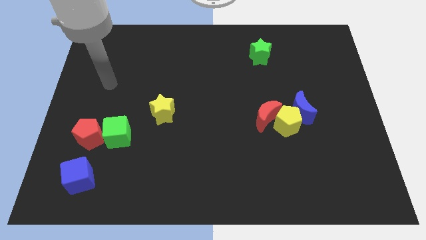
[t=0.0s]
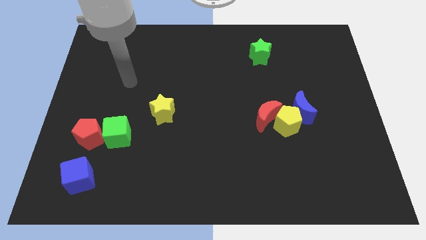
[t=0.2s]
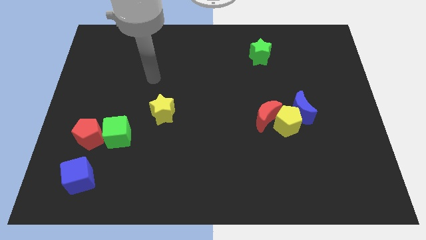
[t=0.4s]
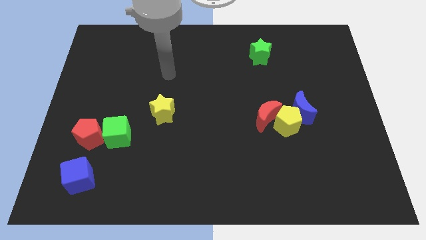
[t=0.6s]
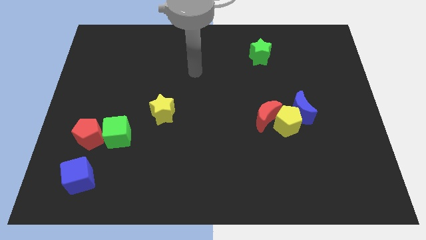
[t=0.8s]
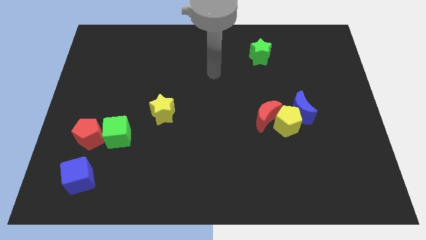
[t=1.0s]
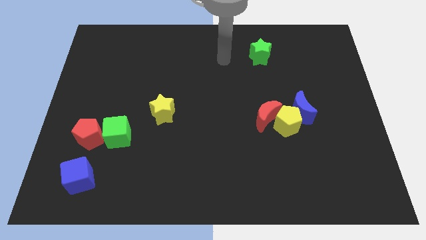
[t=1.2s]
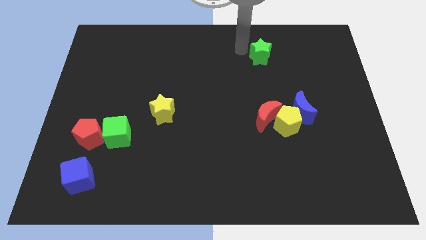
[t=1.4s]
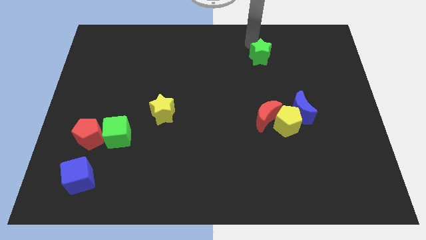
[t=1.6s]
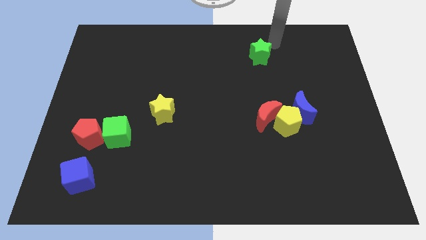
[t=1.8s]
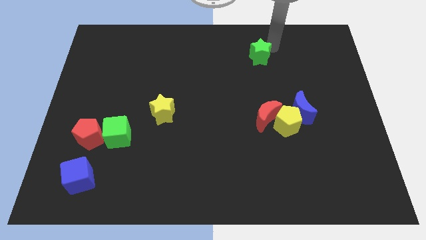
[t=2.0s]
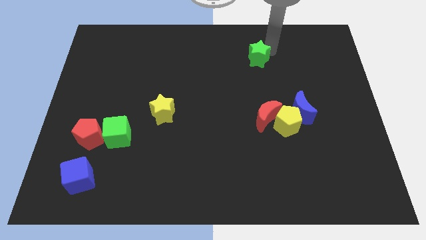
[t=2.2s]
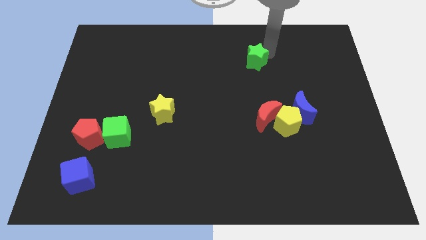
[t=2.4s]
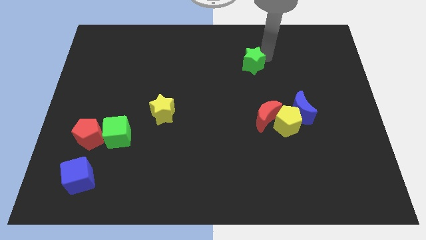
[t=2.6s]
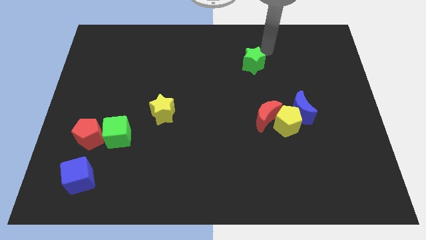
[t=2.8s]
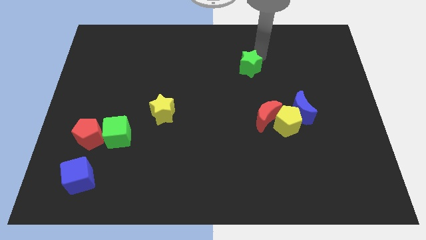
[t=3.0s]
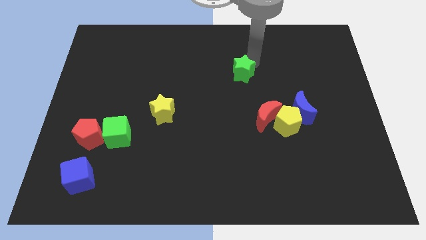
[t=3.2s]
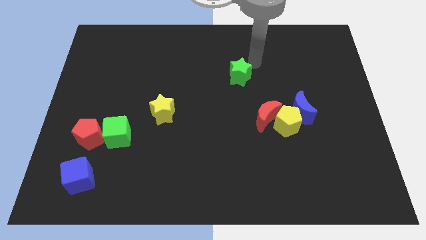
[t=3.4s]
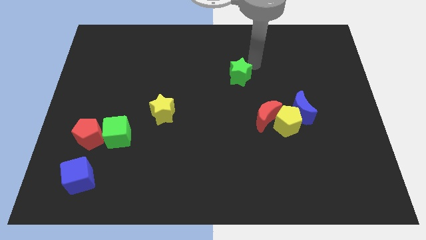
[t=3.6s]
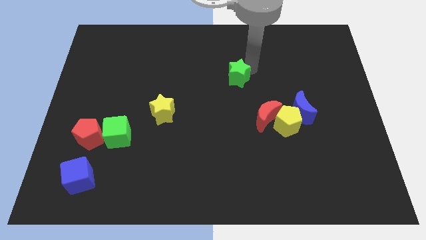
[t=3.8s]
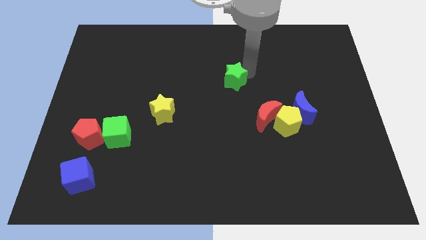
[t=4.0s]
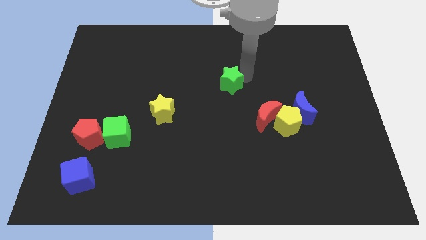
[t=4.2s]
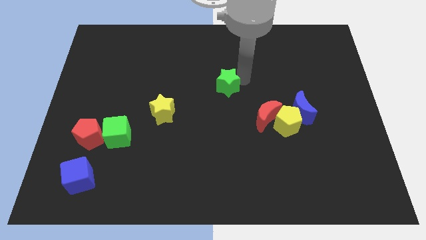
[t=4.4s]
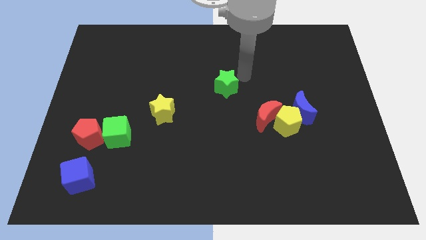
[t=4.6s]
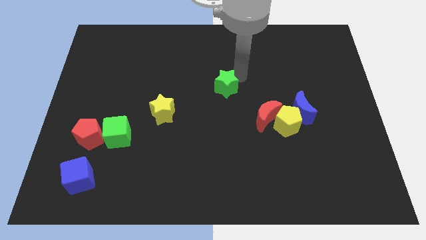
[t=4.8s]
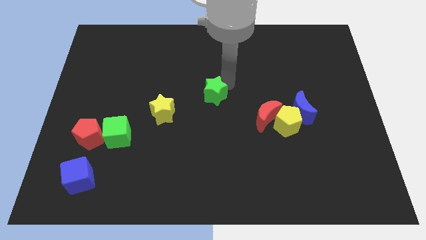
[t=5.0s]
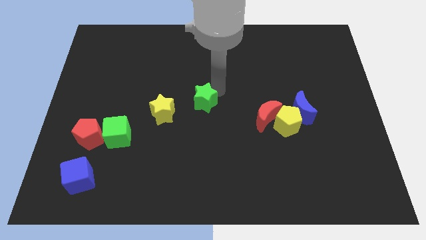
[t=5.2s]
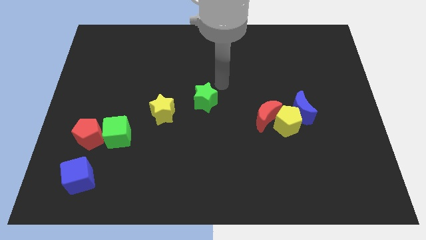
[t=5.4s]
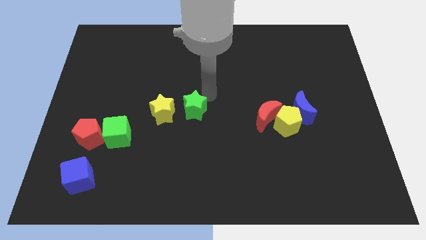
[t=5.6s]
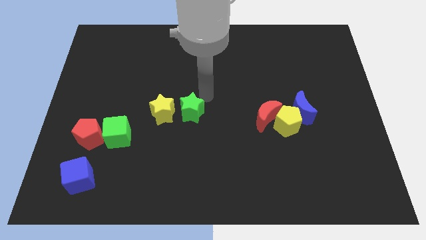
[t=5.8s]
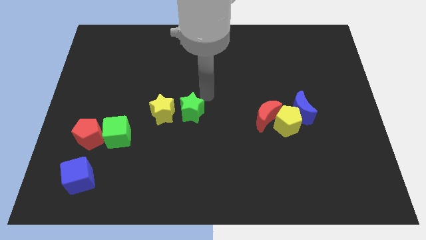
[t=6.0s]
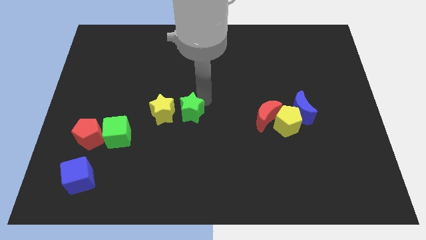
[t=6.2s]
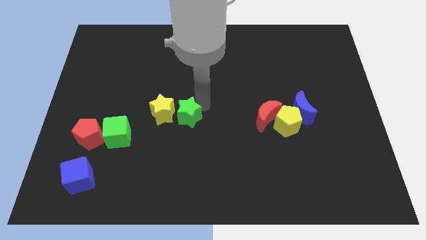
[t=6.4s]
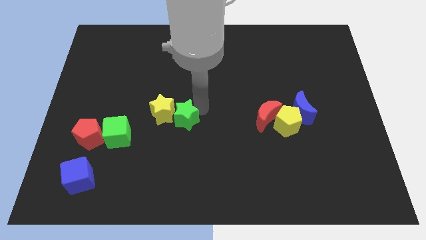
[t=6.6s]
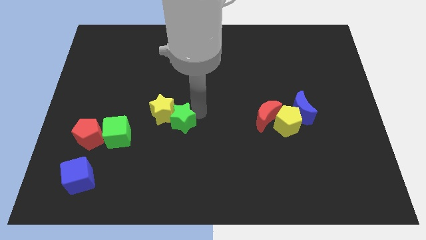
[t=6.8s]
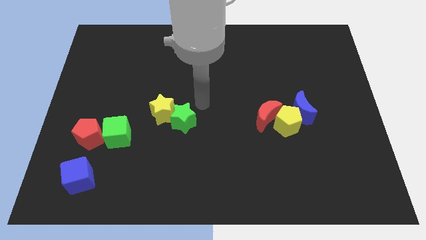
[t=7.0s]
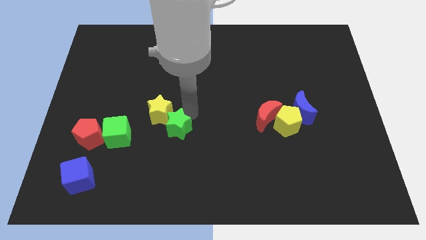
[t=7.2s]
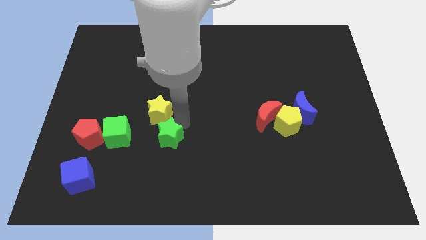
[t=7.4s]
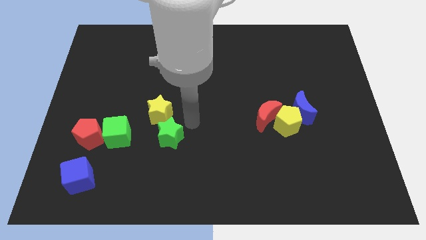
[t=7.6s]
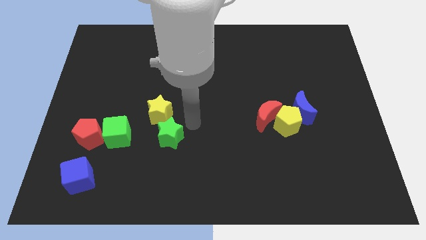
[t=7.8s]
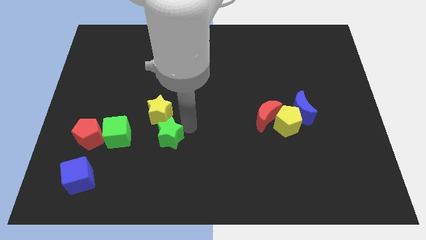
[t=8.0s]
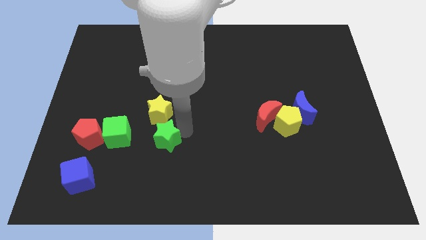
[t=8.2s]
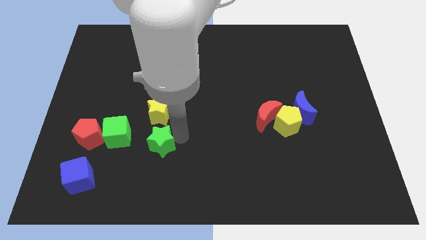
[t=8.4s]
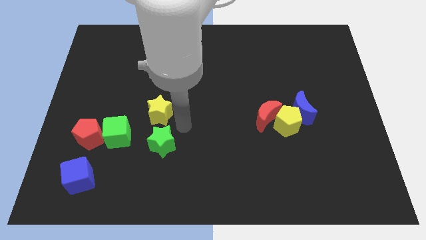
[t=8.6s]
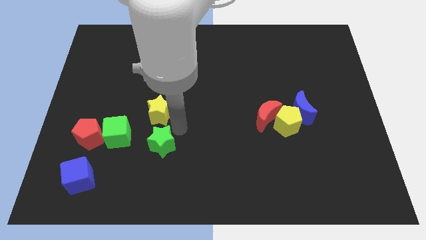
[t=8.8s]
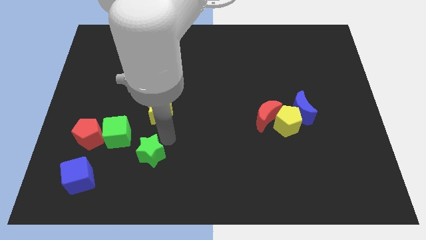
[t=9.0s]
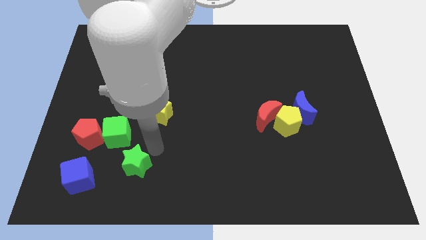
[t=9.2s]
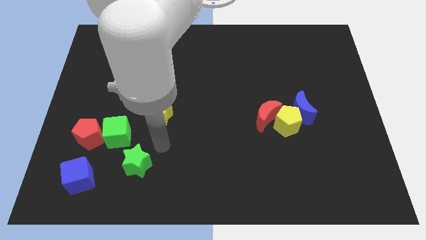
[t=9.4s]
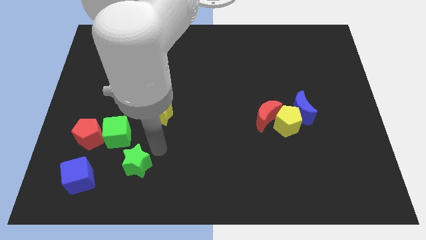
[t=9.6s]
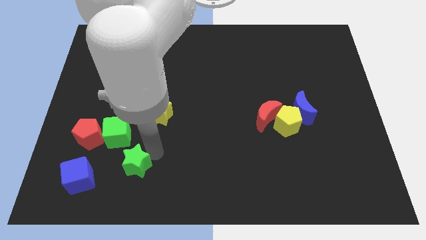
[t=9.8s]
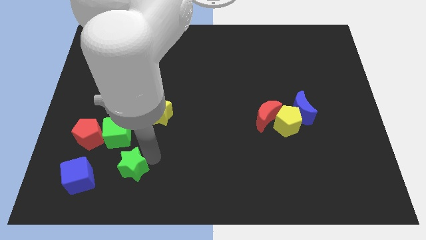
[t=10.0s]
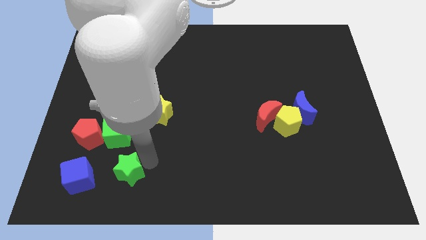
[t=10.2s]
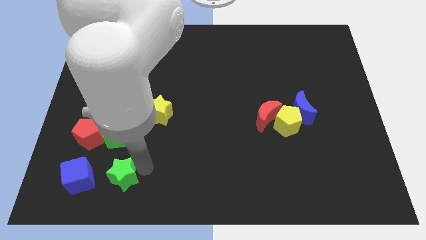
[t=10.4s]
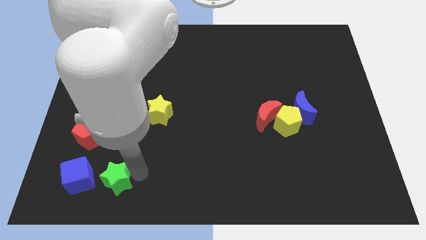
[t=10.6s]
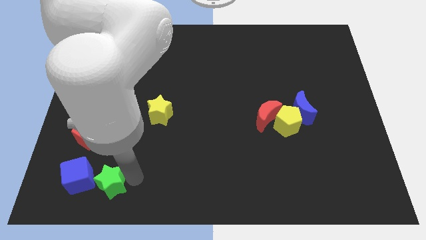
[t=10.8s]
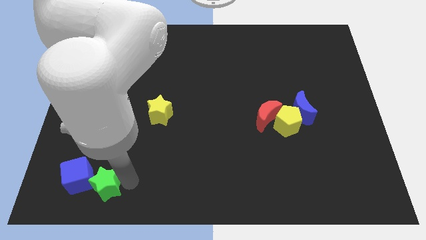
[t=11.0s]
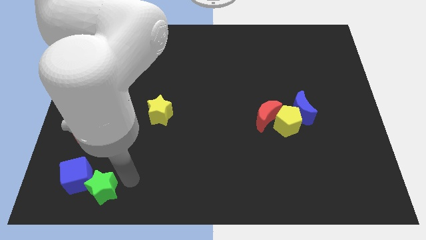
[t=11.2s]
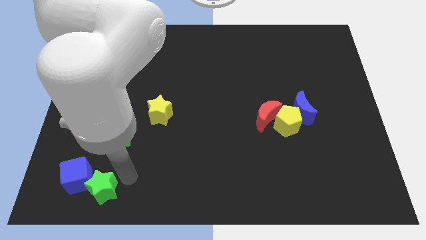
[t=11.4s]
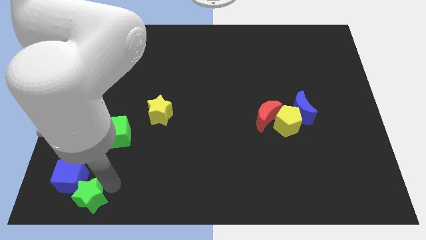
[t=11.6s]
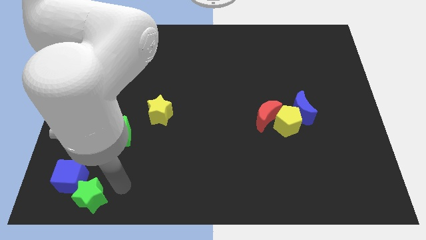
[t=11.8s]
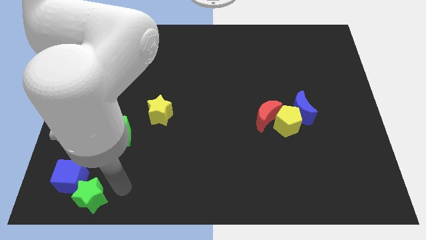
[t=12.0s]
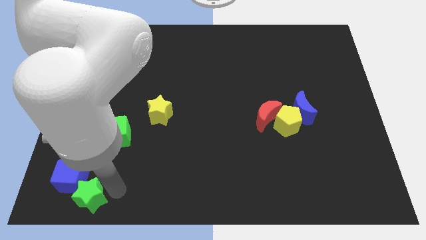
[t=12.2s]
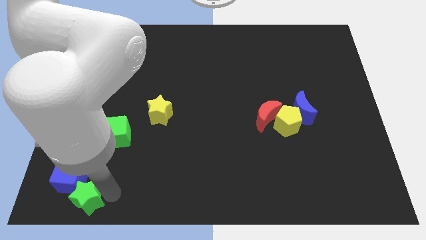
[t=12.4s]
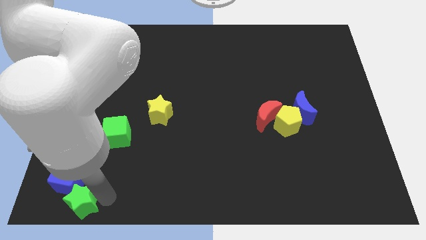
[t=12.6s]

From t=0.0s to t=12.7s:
move the green star to the bottom left of the board
